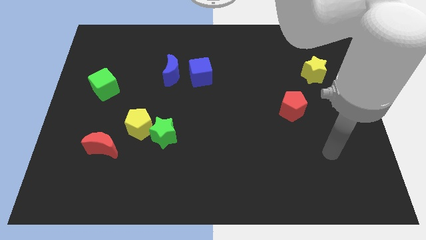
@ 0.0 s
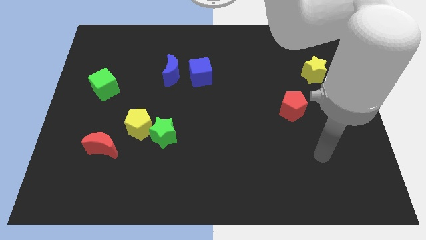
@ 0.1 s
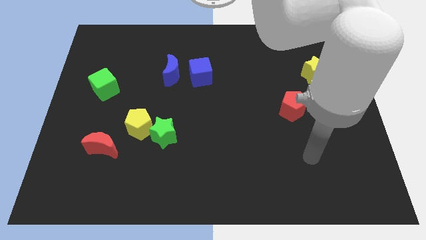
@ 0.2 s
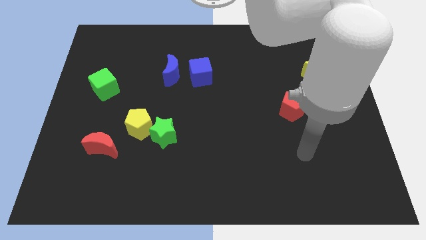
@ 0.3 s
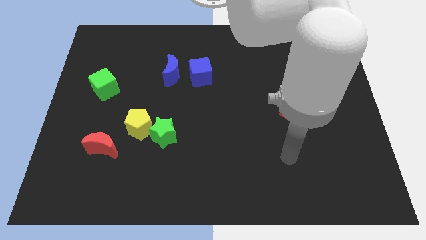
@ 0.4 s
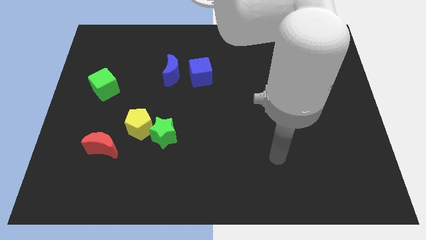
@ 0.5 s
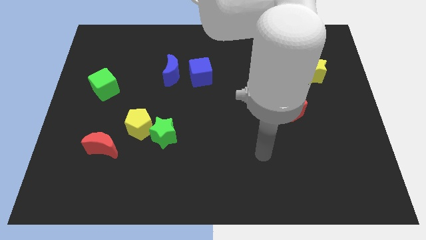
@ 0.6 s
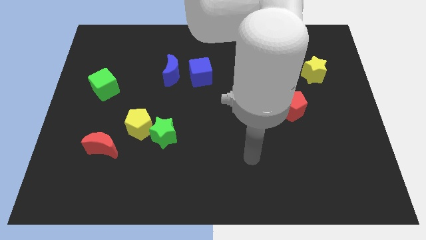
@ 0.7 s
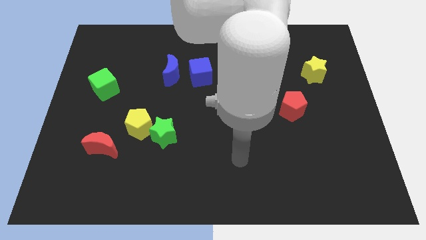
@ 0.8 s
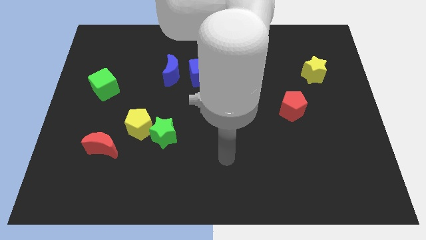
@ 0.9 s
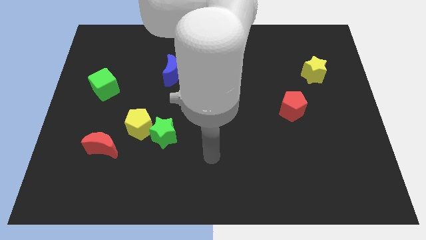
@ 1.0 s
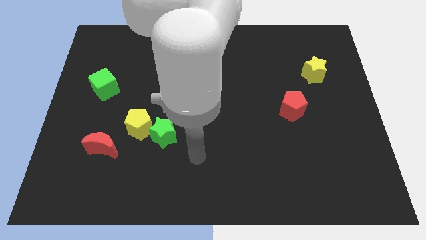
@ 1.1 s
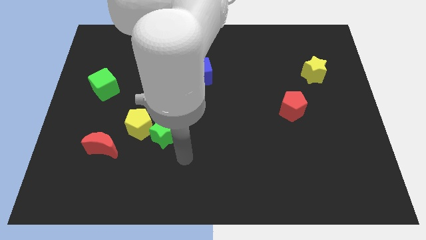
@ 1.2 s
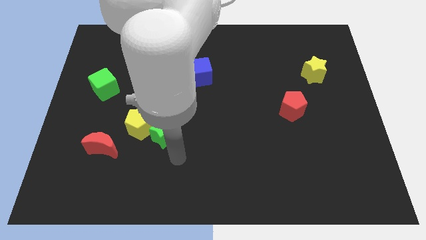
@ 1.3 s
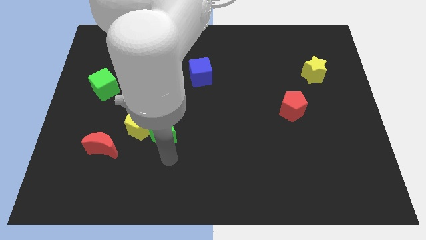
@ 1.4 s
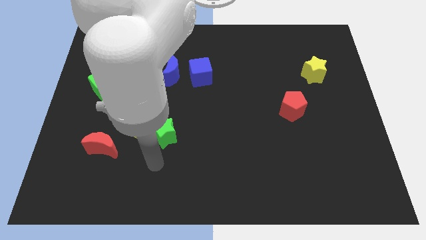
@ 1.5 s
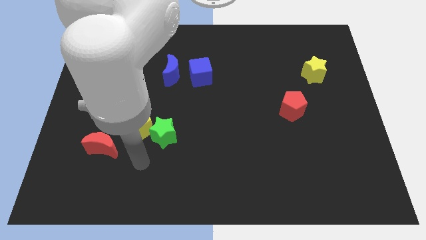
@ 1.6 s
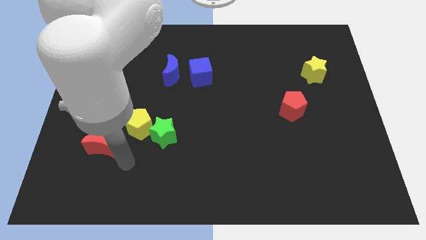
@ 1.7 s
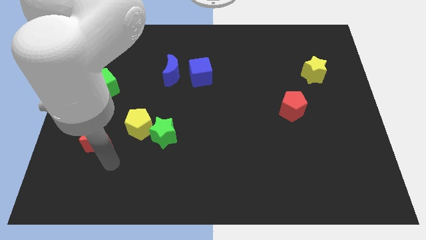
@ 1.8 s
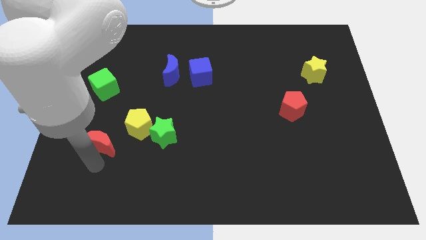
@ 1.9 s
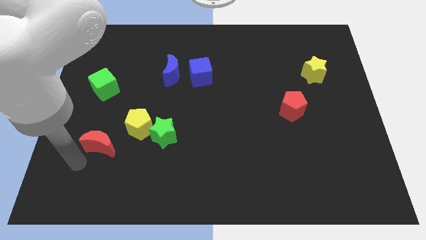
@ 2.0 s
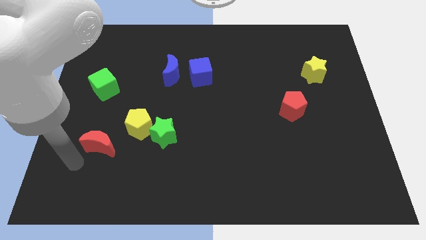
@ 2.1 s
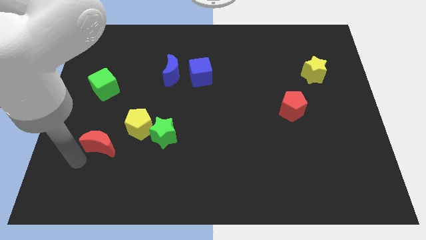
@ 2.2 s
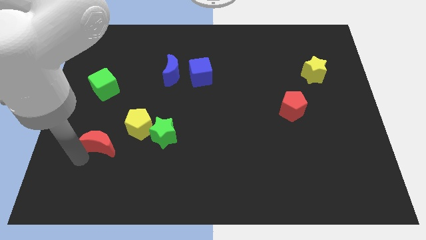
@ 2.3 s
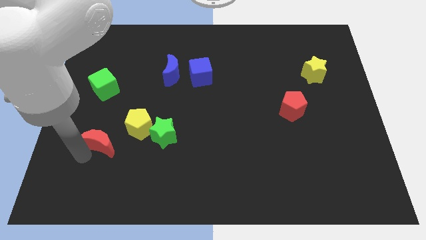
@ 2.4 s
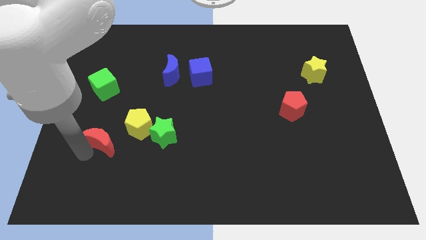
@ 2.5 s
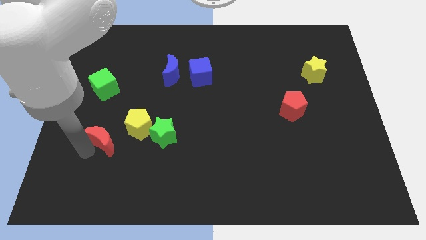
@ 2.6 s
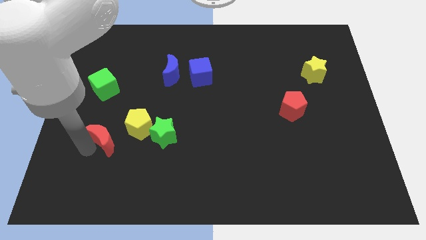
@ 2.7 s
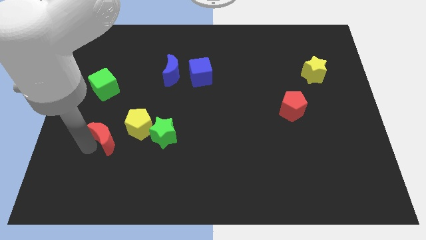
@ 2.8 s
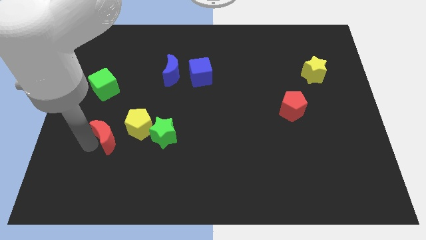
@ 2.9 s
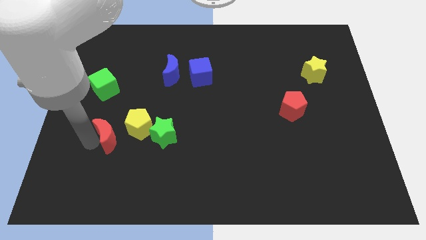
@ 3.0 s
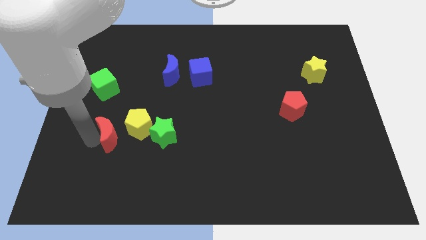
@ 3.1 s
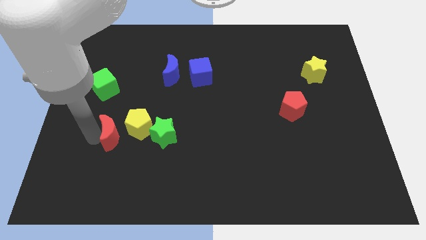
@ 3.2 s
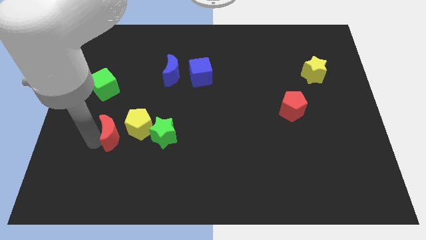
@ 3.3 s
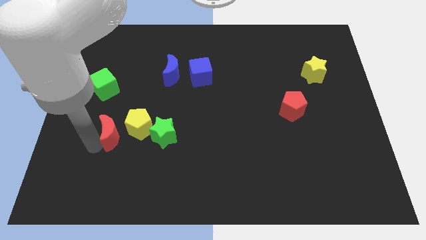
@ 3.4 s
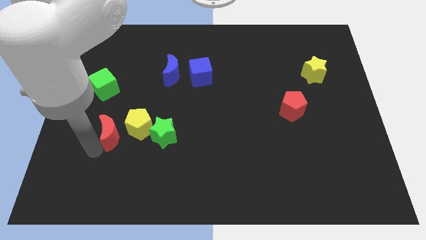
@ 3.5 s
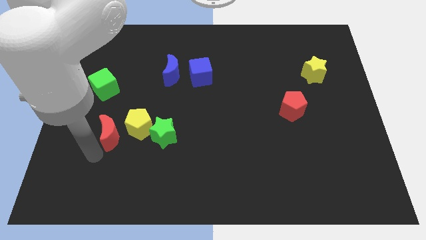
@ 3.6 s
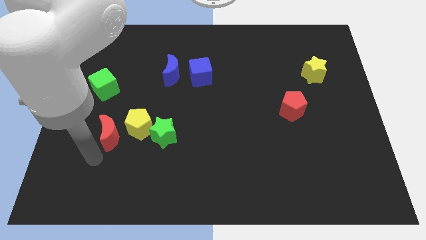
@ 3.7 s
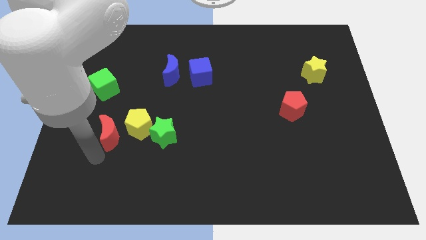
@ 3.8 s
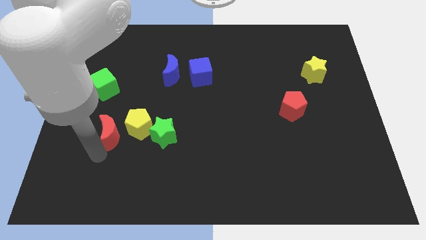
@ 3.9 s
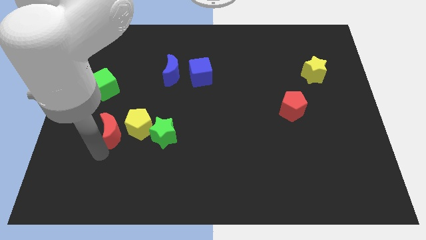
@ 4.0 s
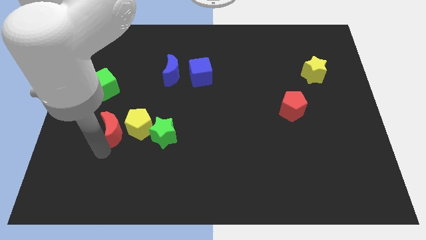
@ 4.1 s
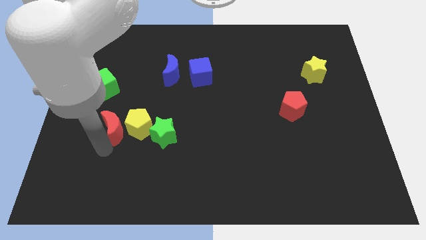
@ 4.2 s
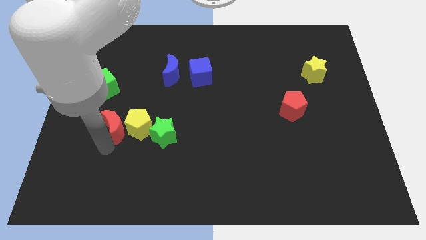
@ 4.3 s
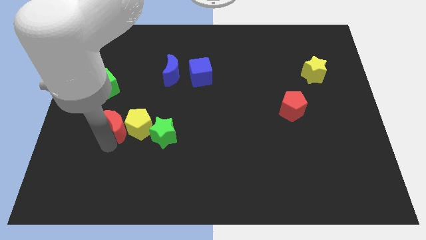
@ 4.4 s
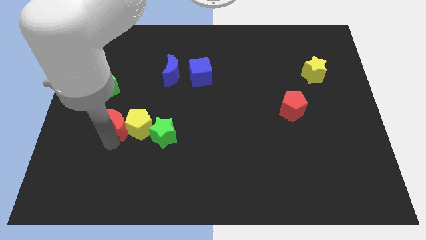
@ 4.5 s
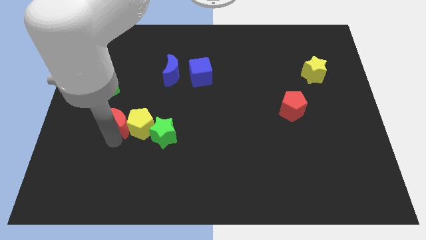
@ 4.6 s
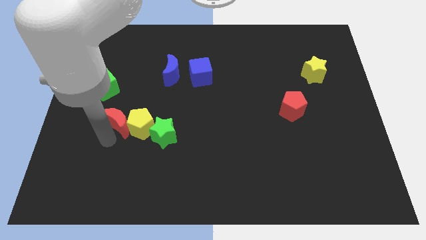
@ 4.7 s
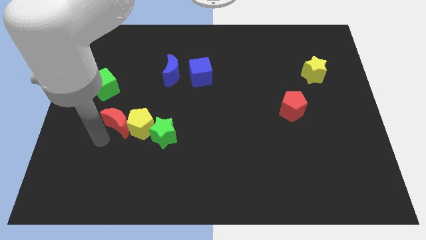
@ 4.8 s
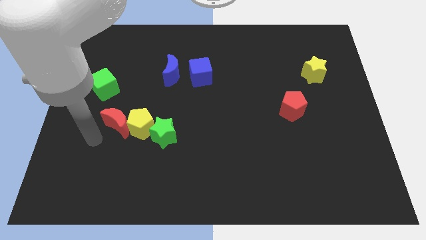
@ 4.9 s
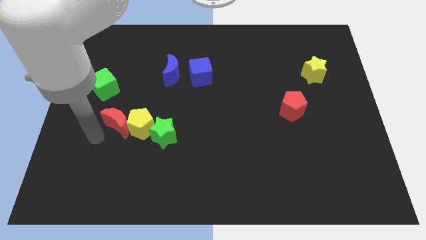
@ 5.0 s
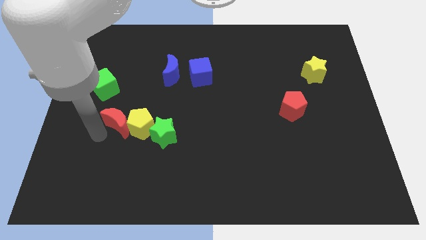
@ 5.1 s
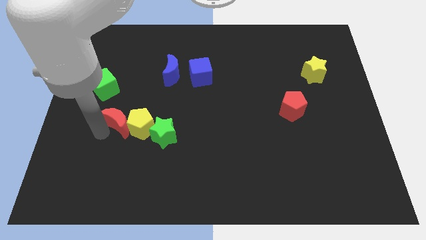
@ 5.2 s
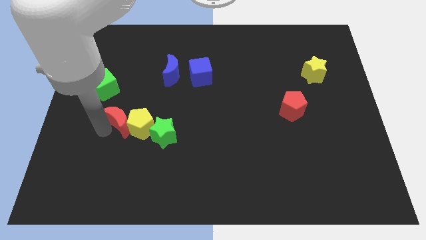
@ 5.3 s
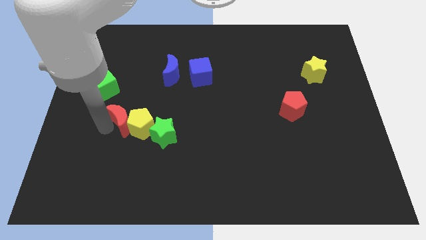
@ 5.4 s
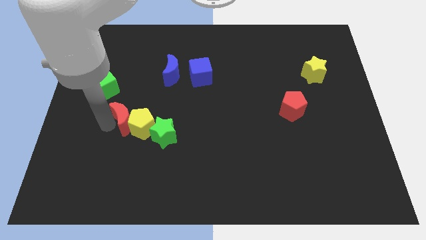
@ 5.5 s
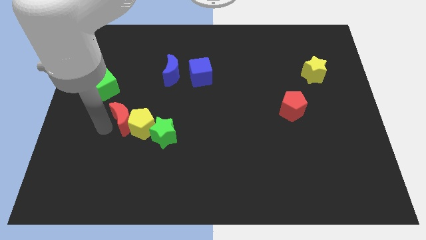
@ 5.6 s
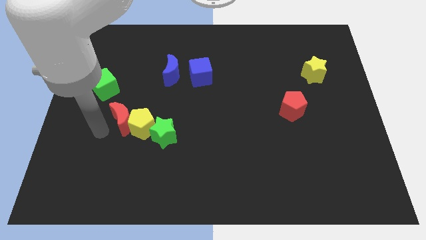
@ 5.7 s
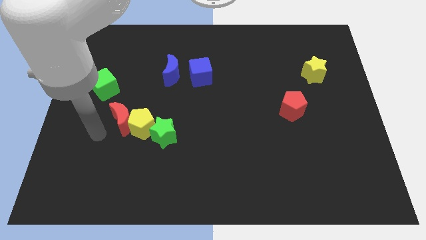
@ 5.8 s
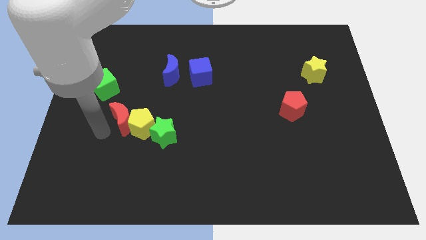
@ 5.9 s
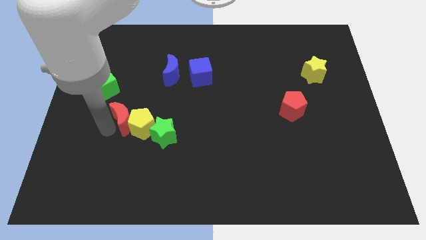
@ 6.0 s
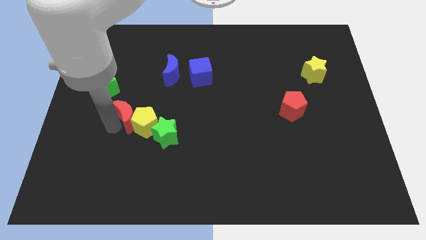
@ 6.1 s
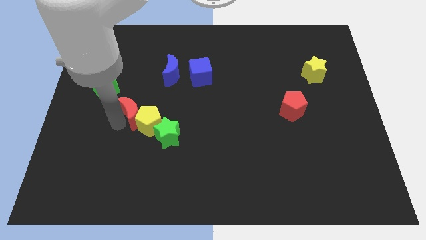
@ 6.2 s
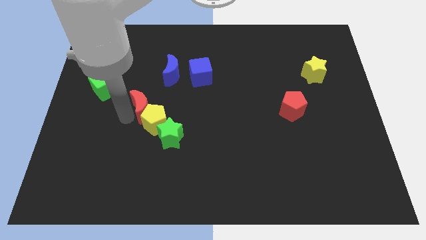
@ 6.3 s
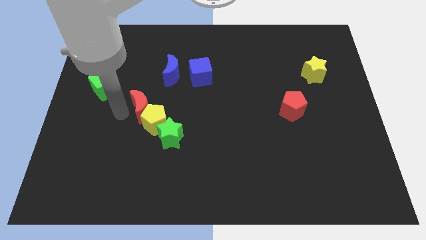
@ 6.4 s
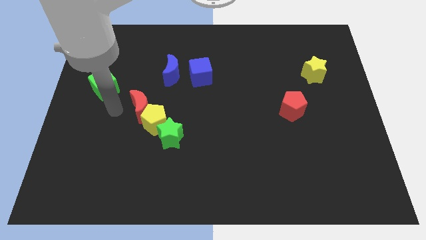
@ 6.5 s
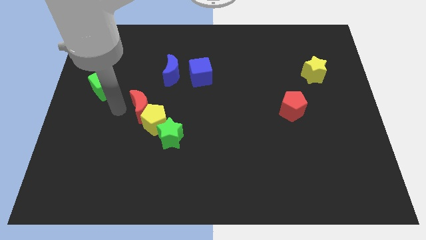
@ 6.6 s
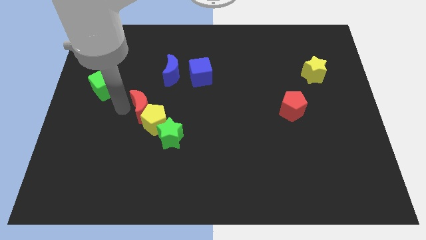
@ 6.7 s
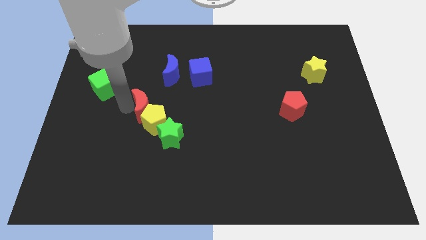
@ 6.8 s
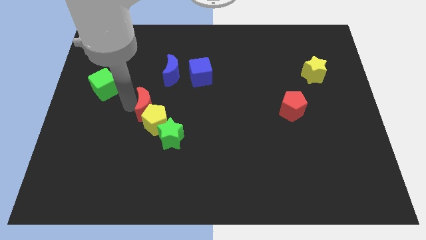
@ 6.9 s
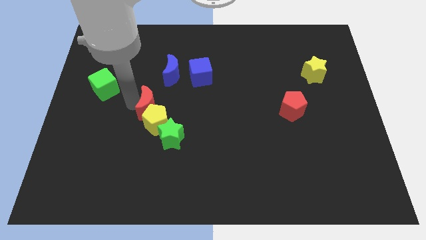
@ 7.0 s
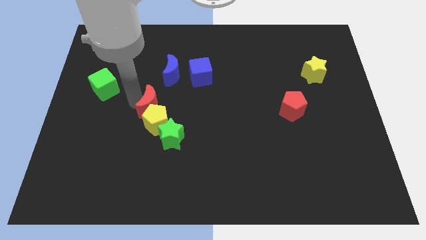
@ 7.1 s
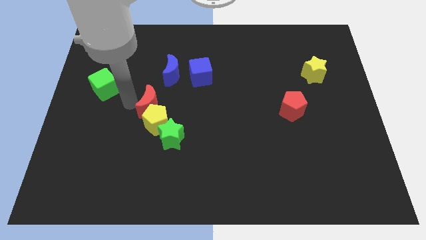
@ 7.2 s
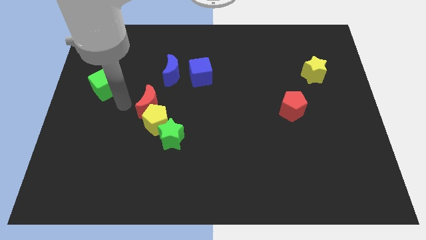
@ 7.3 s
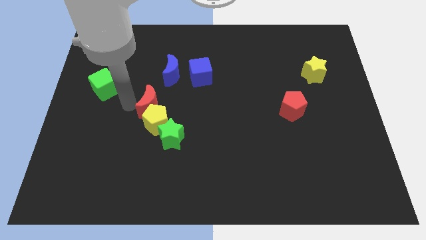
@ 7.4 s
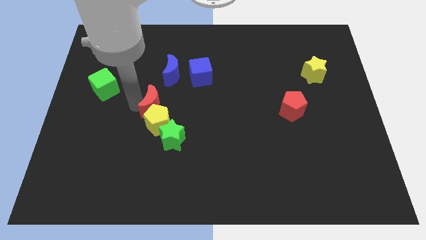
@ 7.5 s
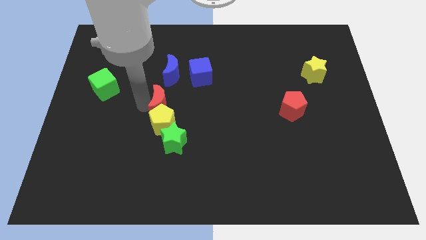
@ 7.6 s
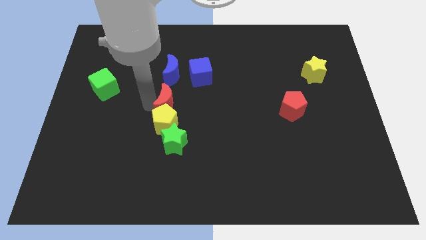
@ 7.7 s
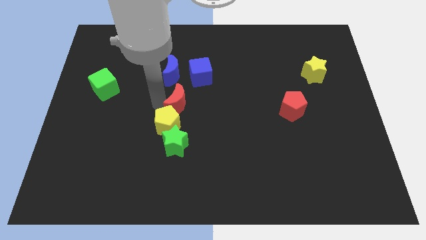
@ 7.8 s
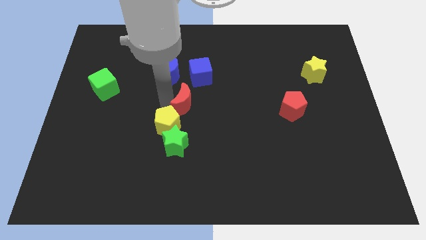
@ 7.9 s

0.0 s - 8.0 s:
move the red moon to the bottom side of the blue cube

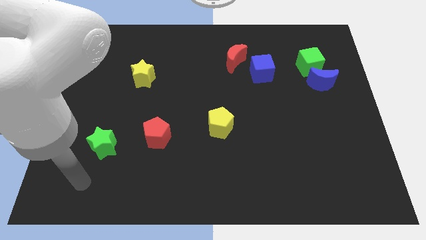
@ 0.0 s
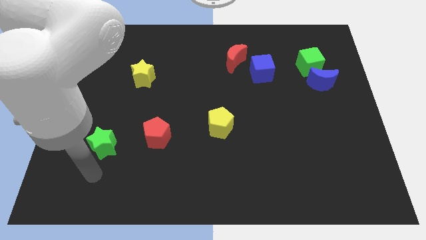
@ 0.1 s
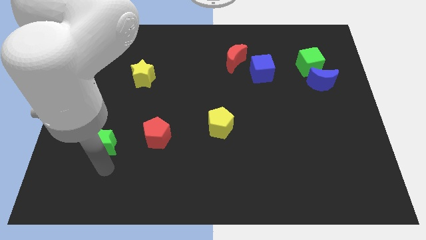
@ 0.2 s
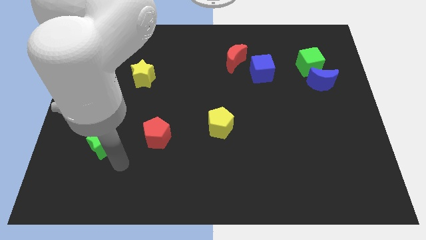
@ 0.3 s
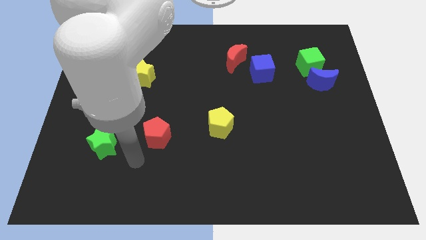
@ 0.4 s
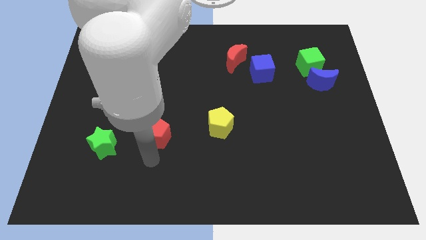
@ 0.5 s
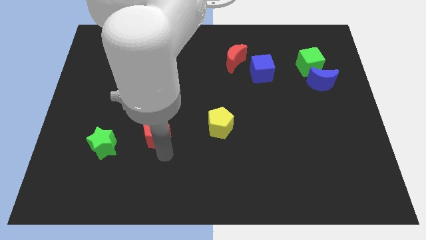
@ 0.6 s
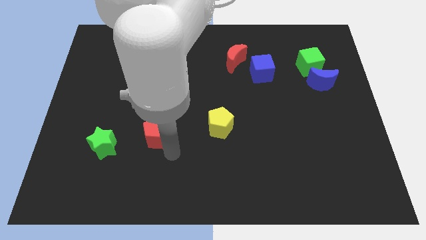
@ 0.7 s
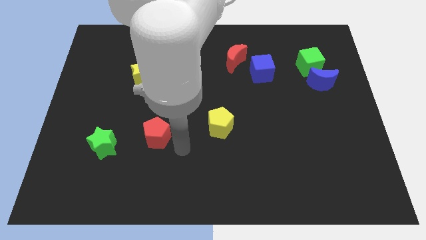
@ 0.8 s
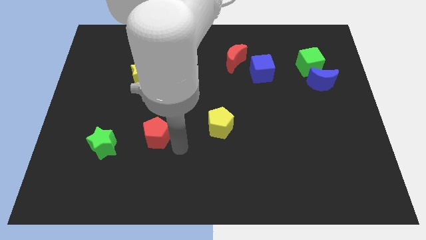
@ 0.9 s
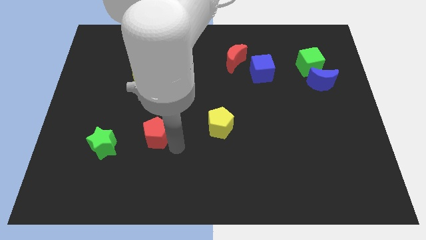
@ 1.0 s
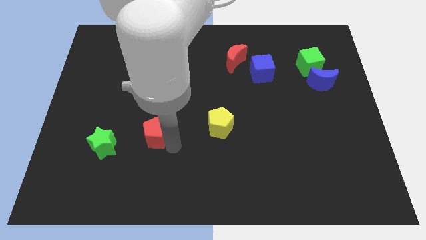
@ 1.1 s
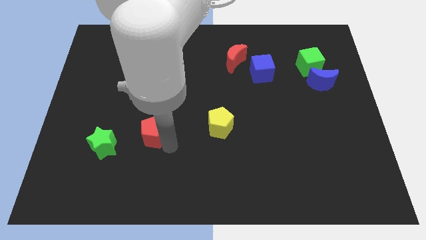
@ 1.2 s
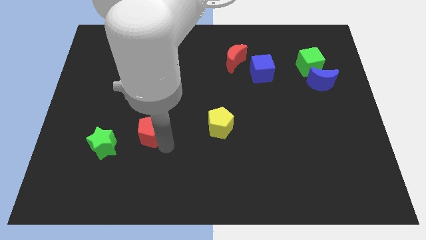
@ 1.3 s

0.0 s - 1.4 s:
slide the red pentagon to the top right side of the green star
